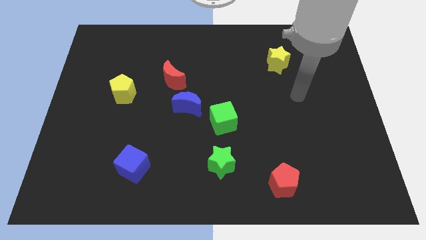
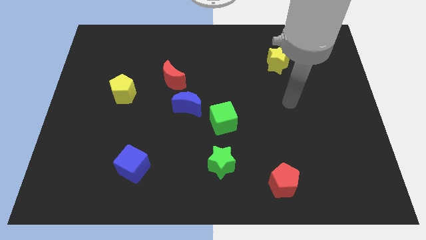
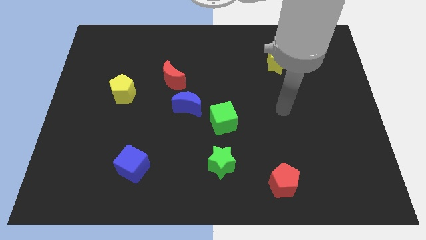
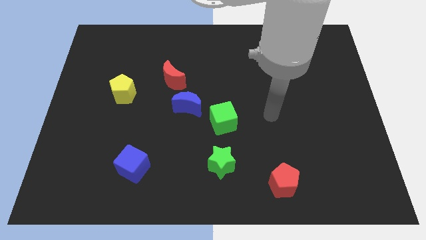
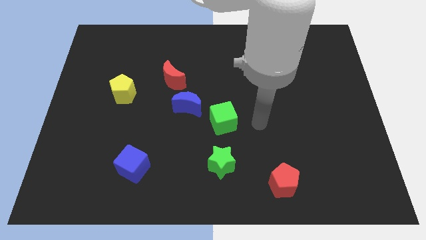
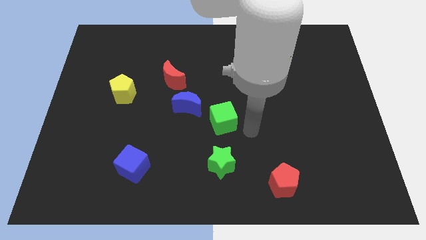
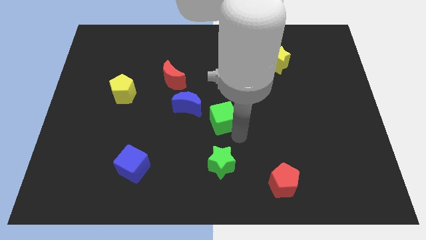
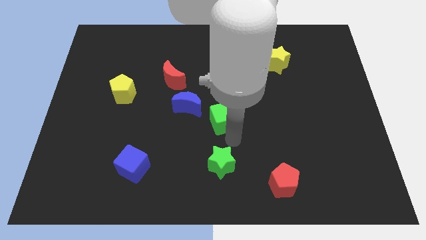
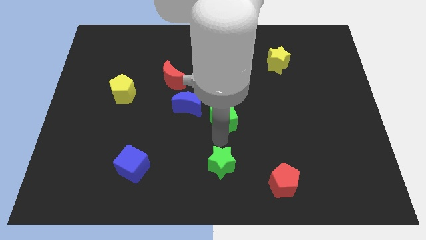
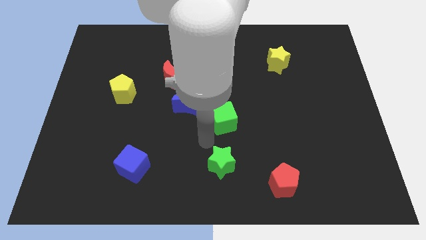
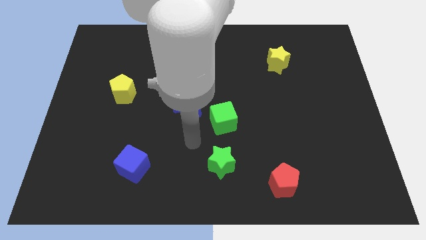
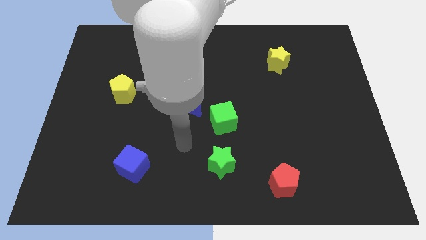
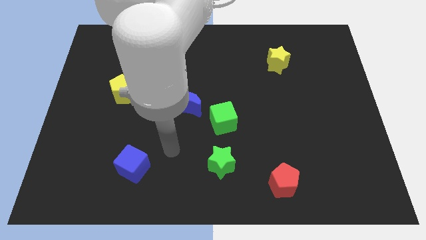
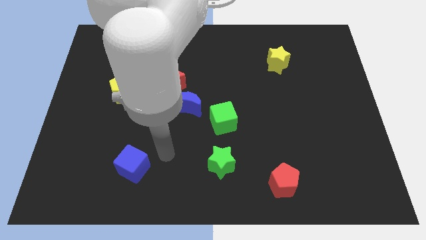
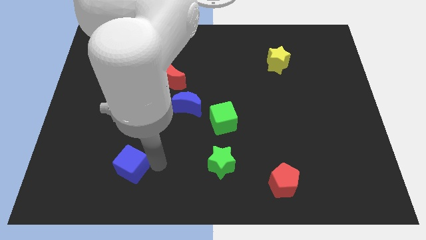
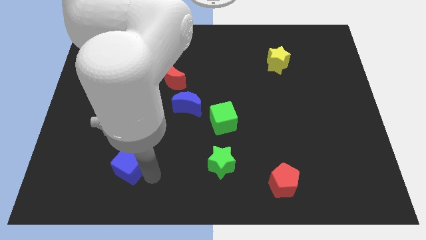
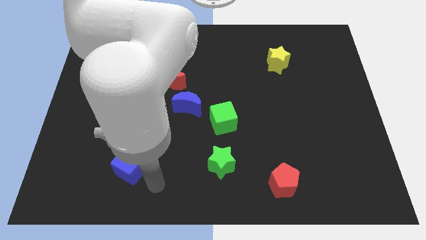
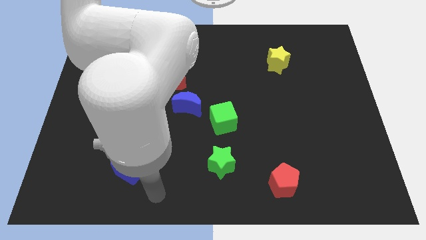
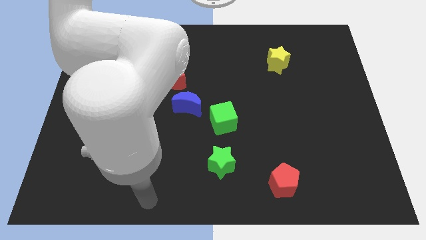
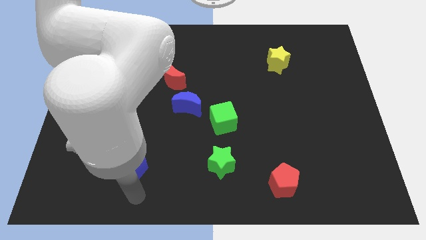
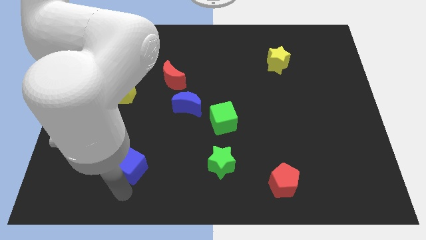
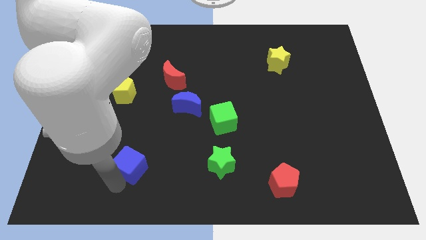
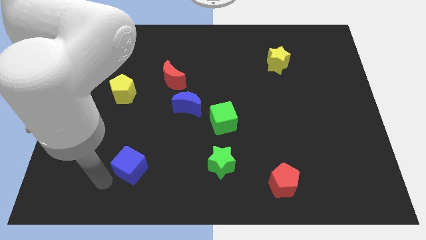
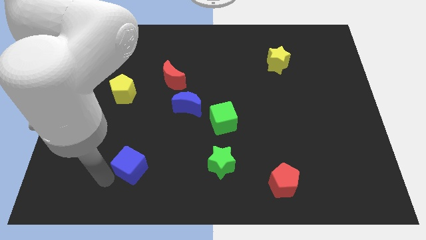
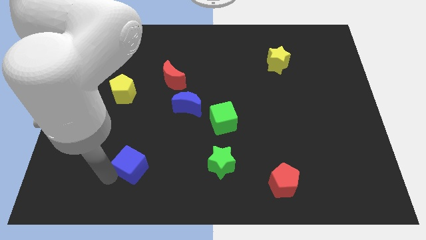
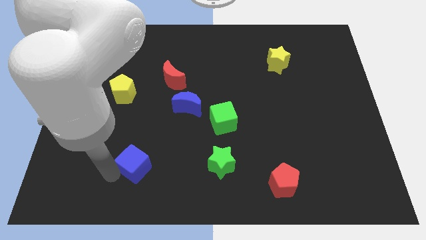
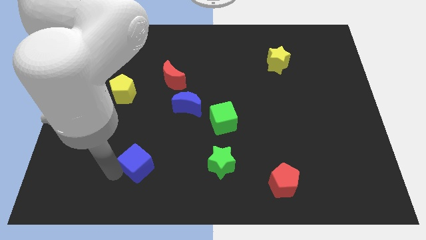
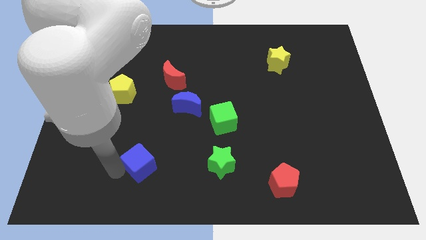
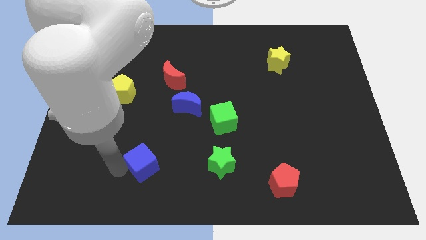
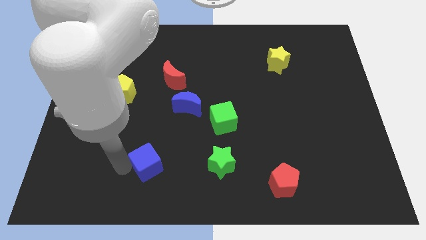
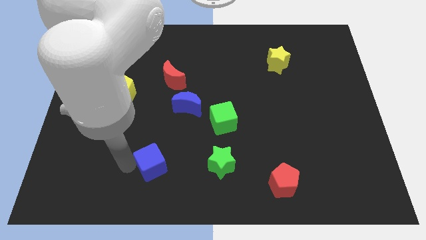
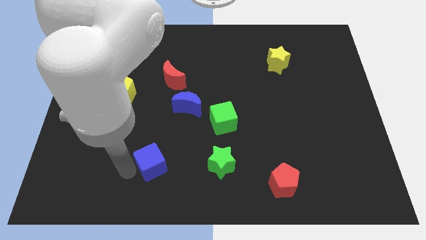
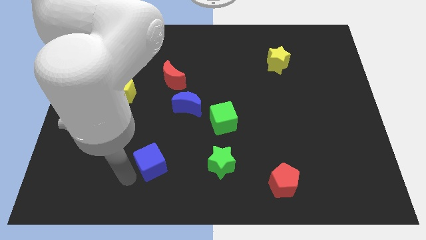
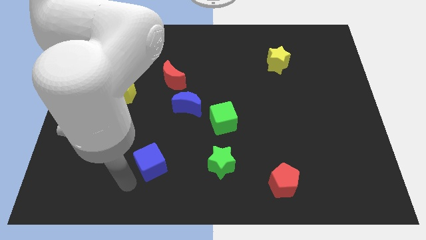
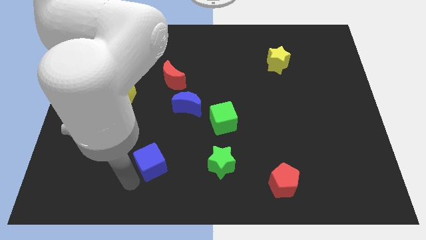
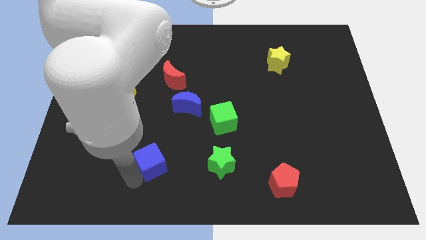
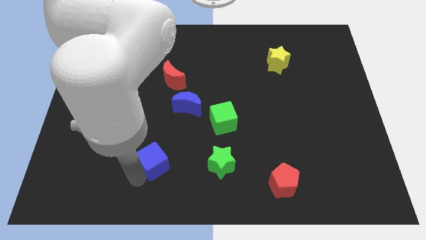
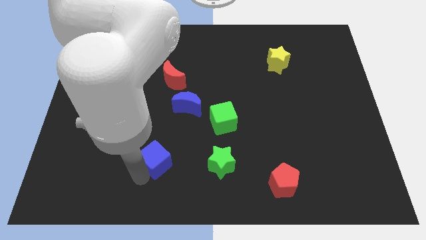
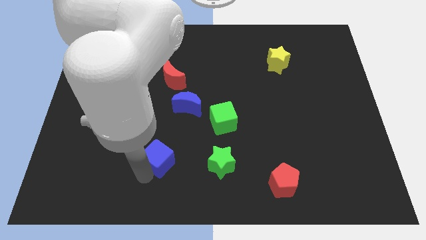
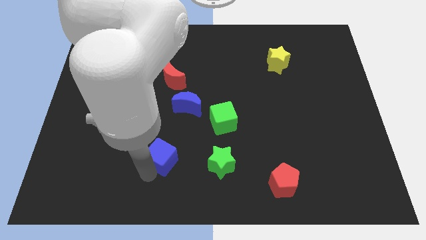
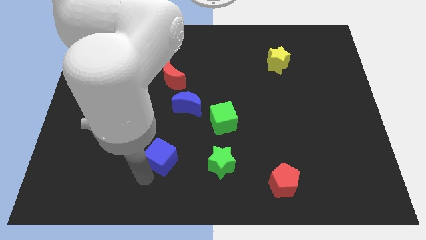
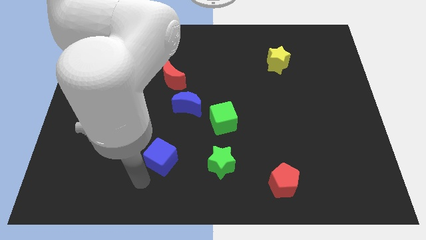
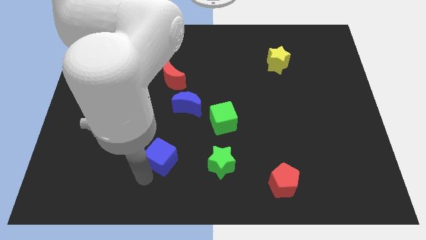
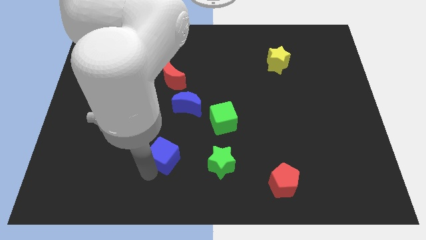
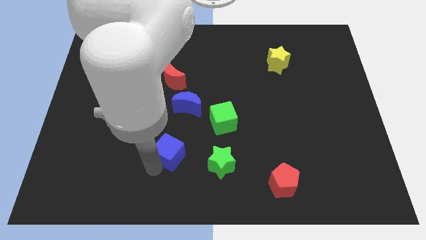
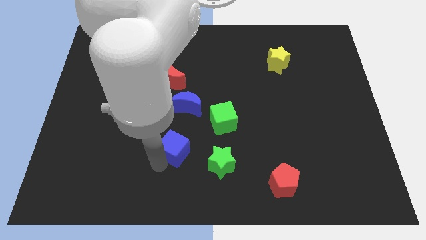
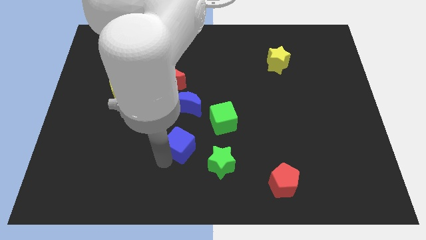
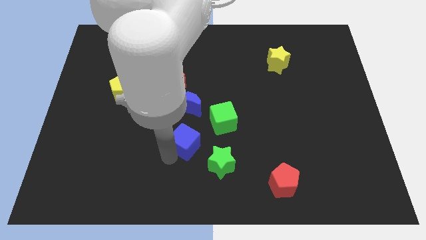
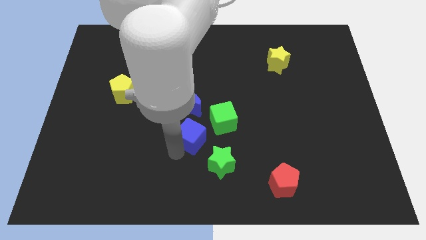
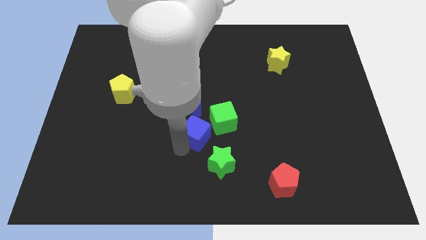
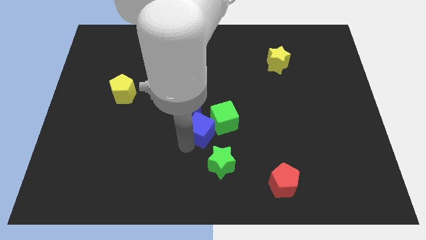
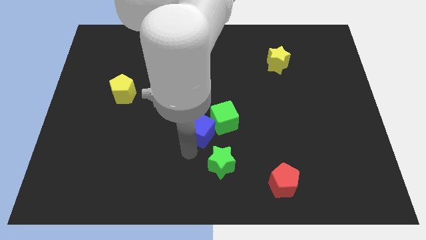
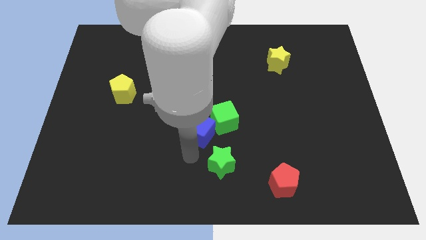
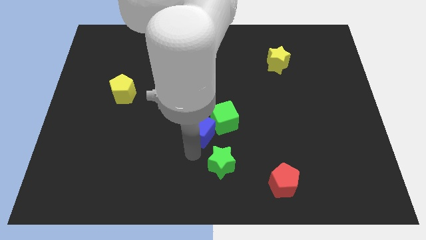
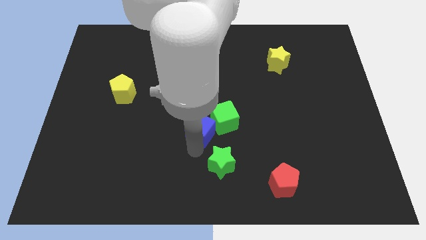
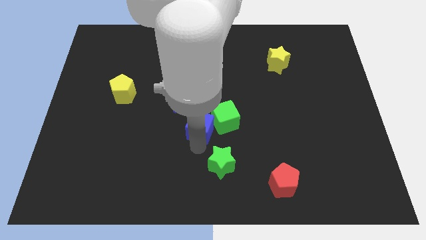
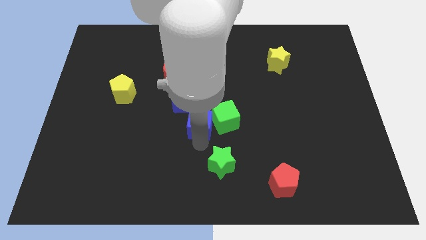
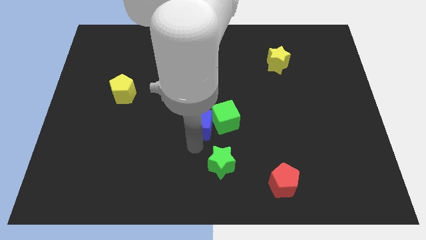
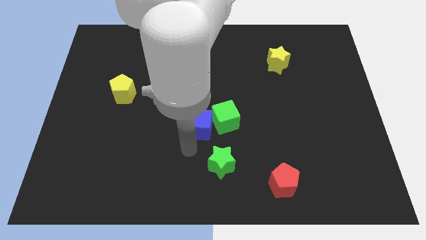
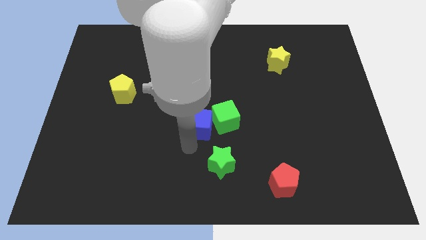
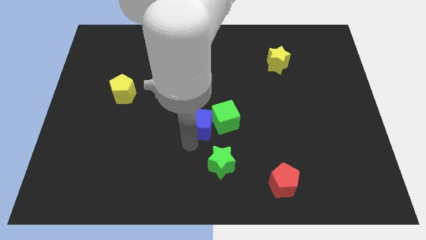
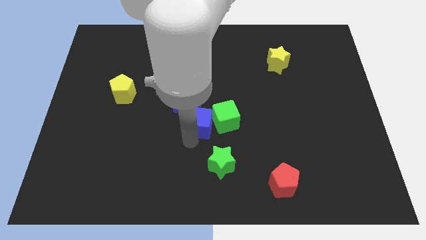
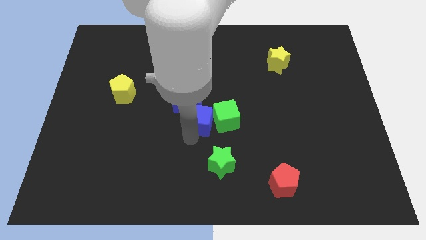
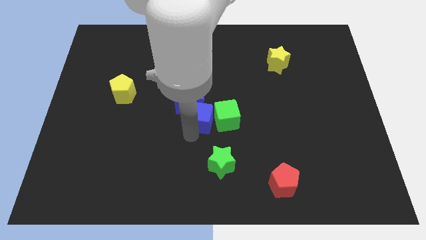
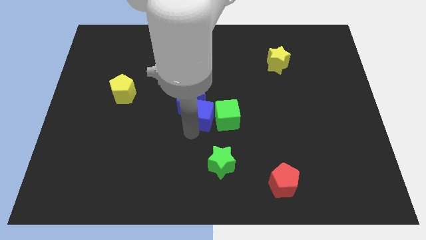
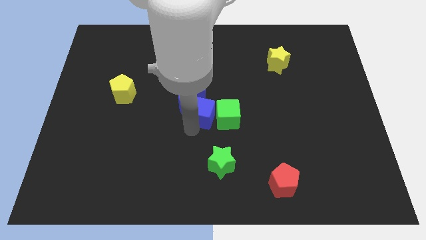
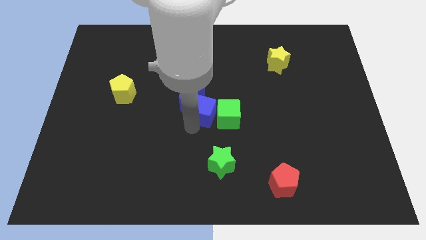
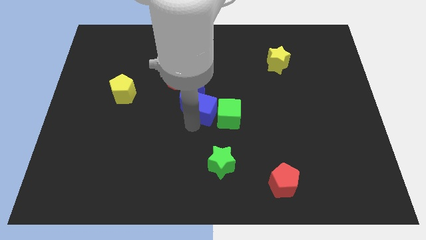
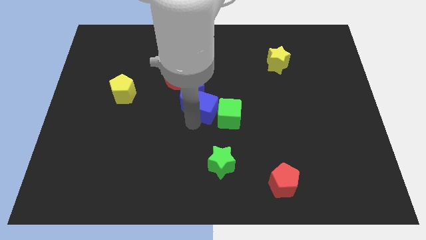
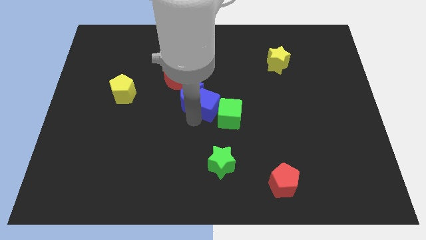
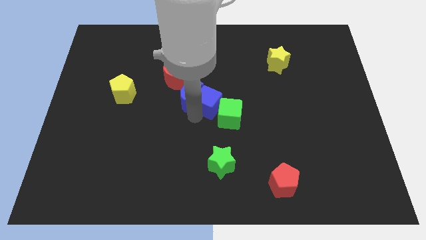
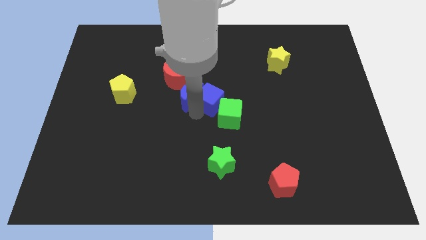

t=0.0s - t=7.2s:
move the blue cube to the top of the green cube

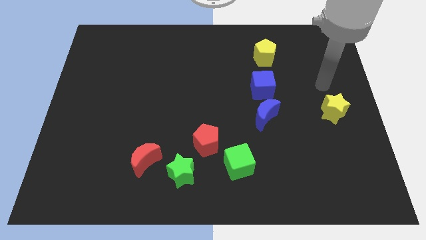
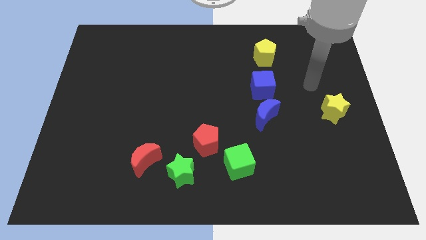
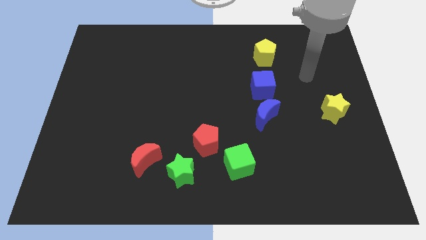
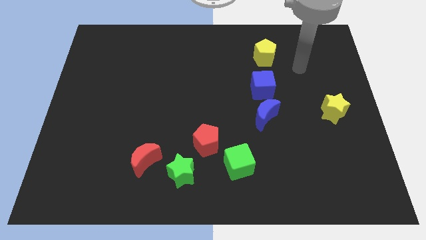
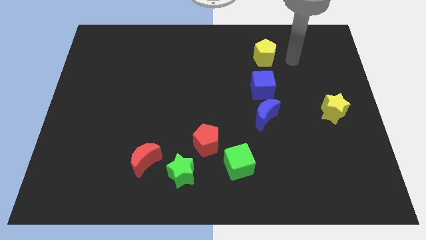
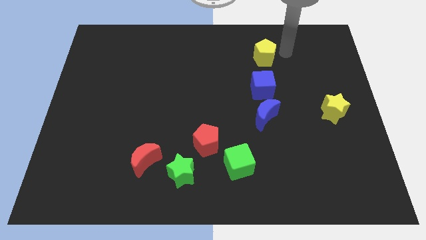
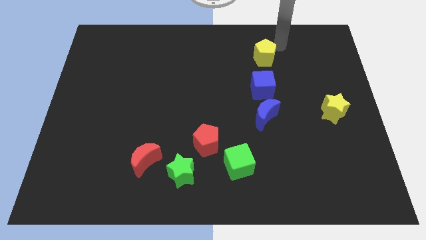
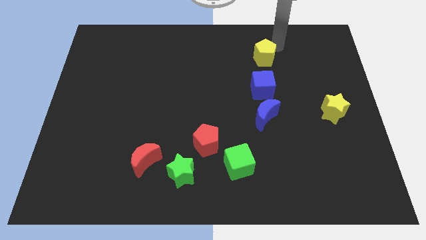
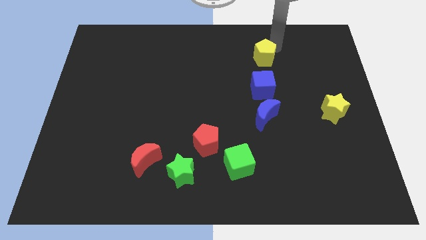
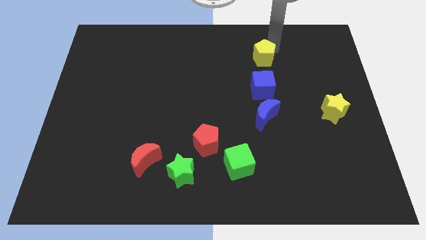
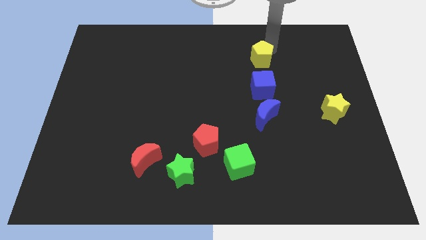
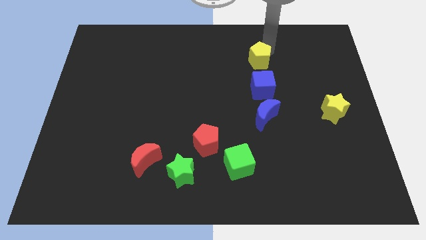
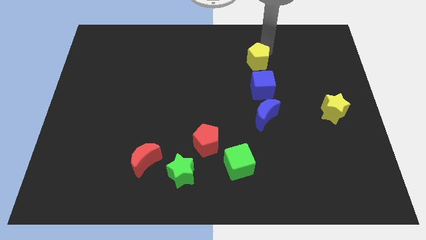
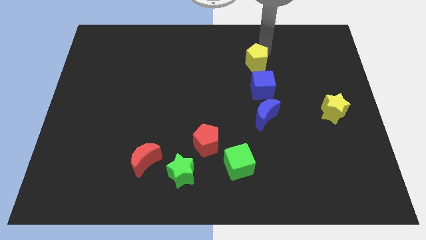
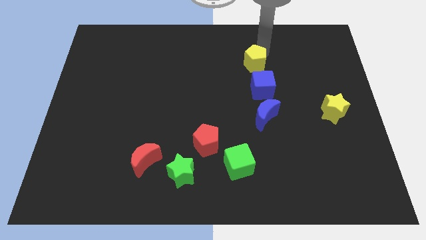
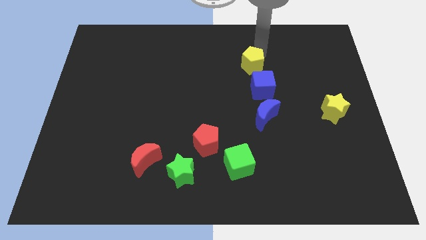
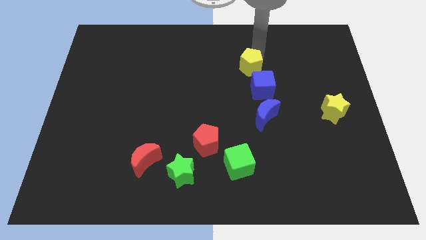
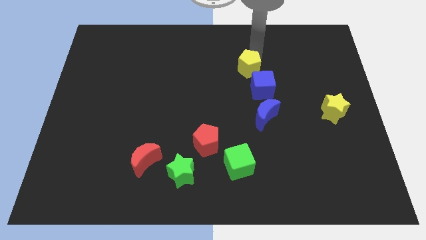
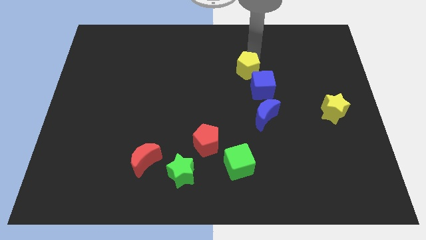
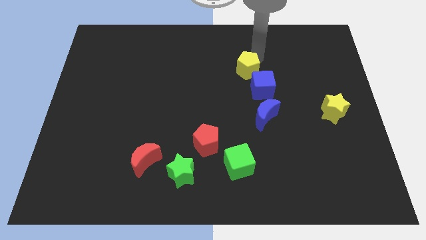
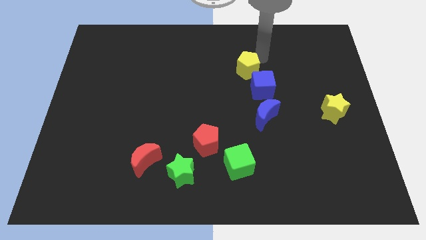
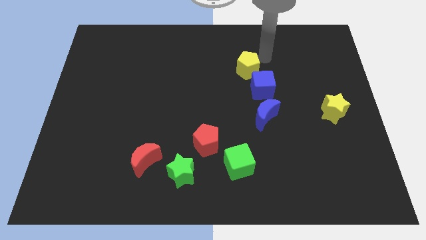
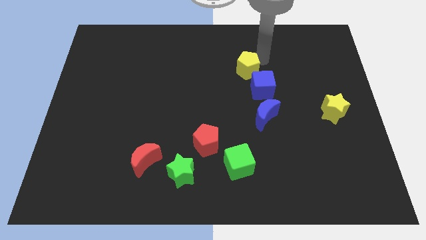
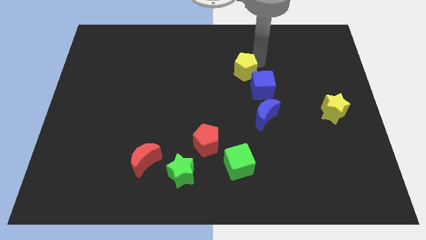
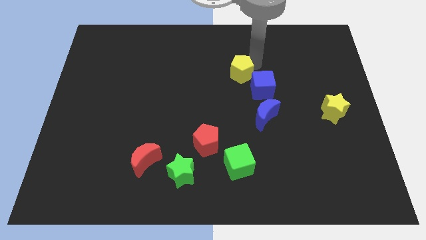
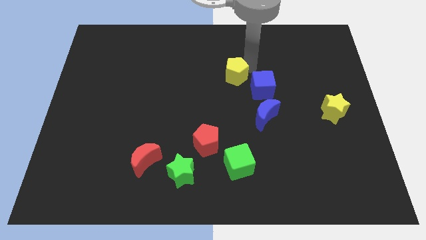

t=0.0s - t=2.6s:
move the yellow pentagon to the left of the blue cube
